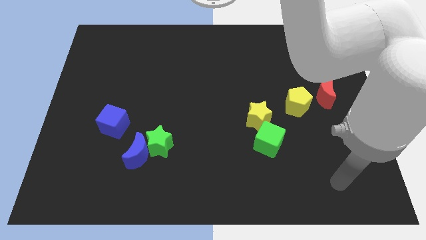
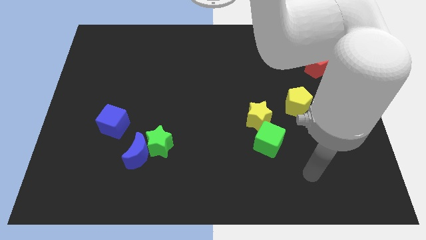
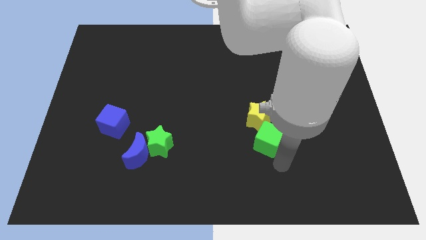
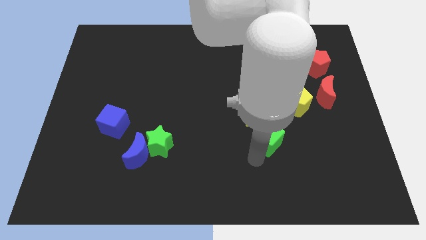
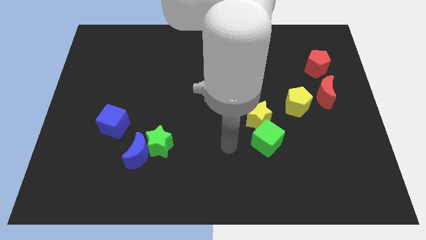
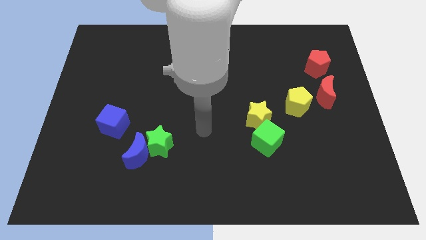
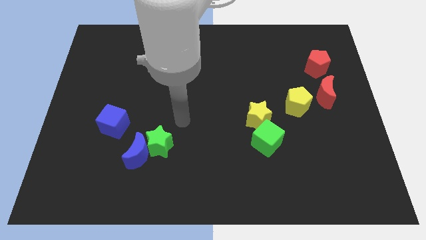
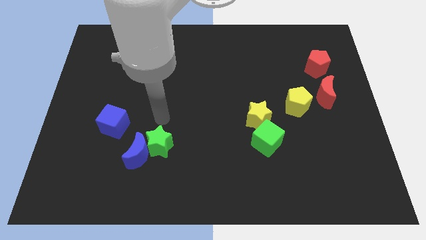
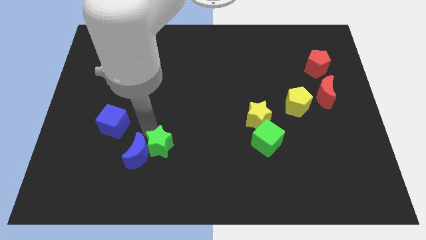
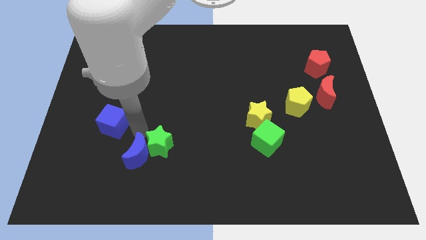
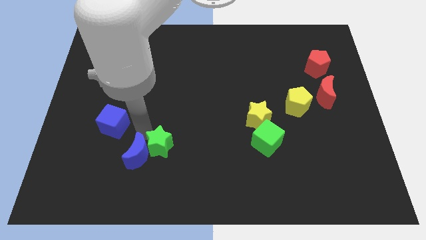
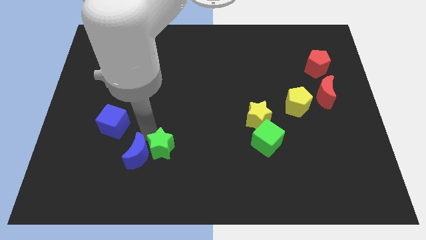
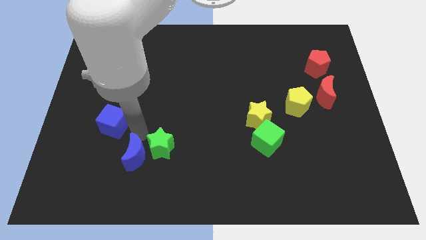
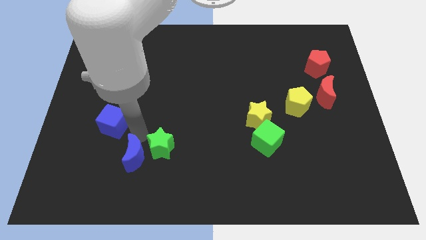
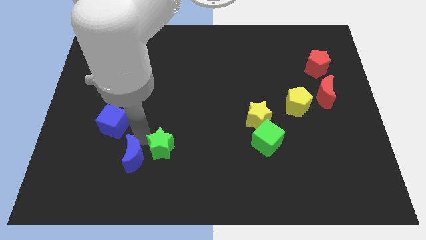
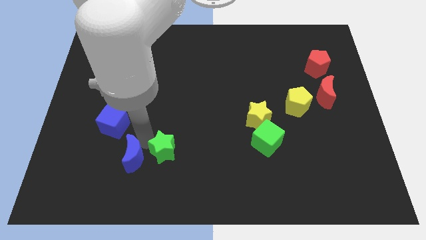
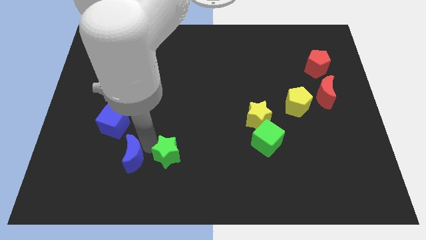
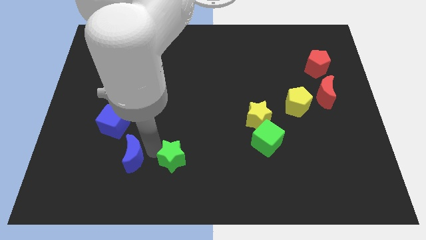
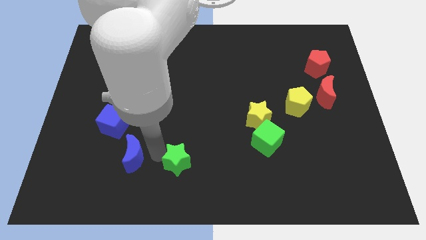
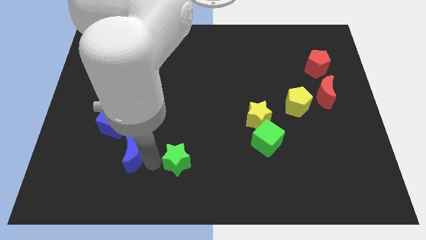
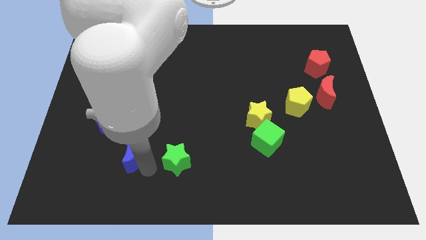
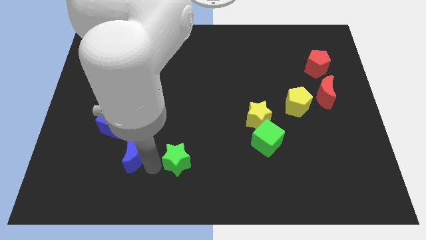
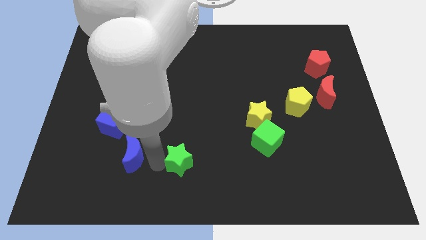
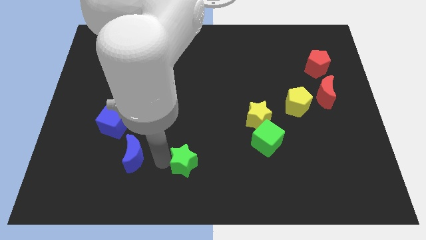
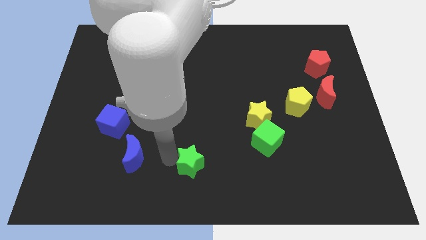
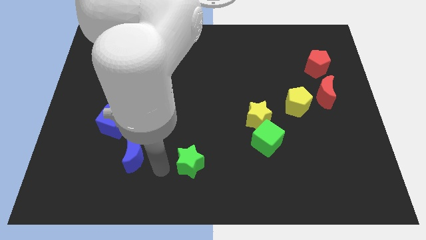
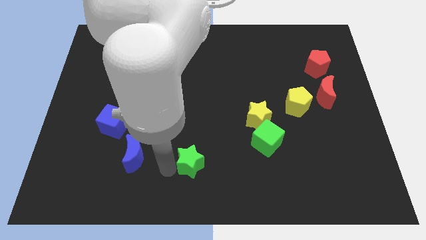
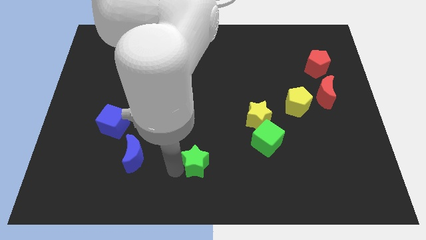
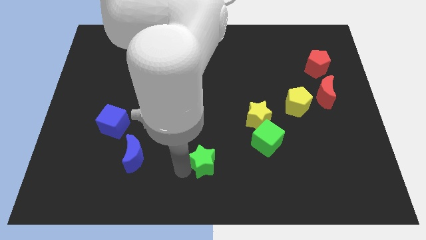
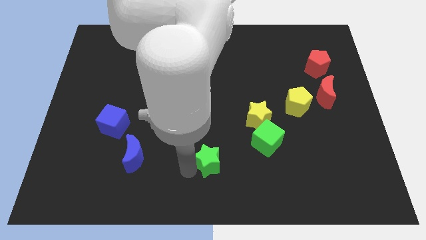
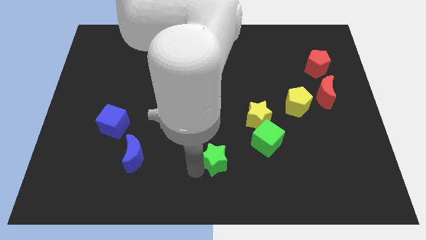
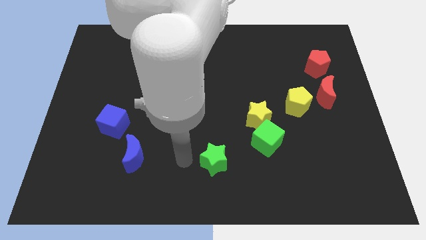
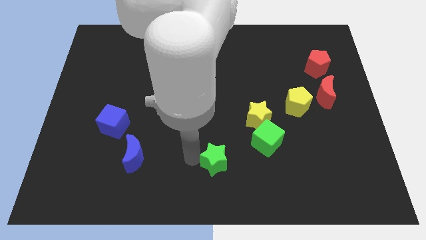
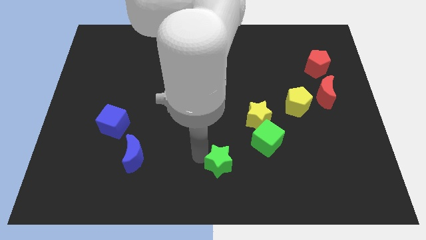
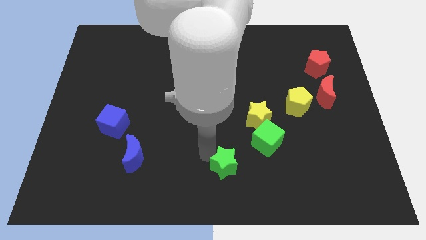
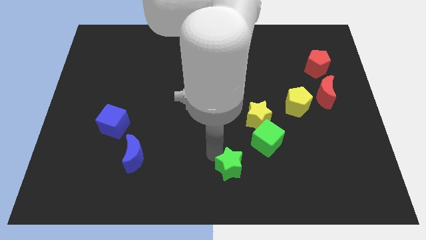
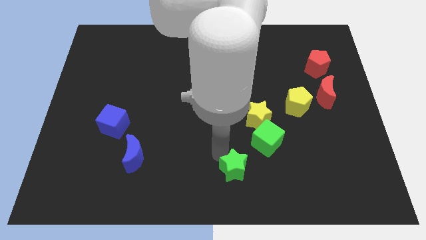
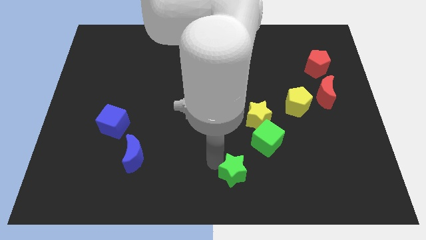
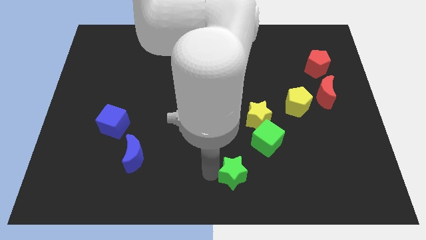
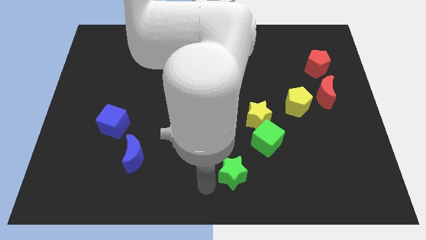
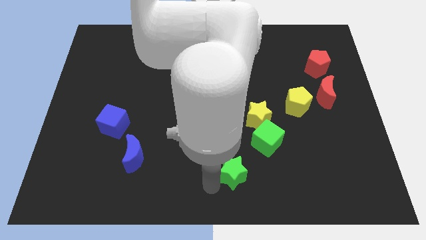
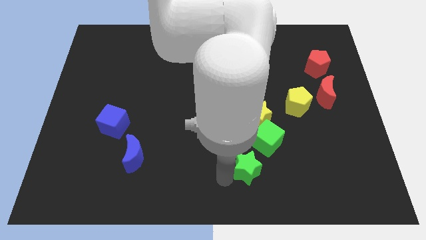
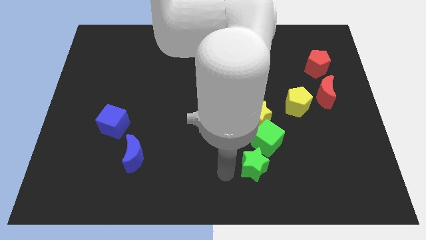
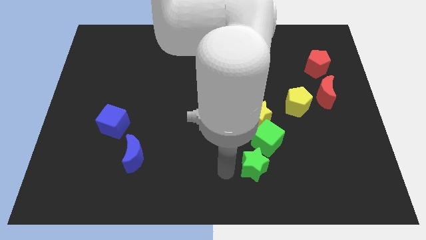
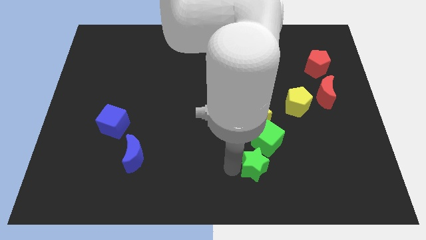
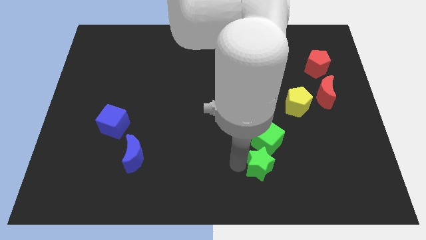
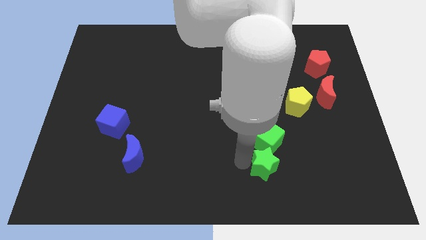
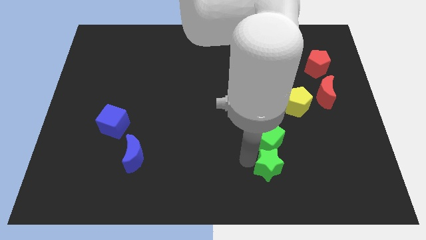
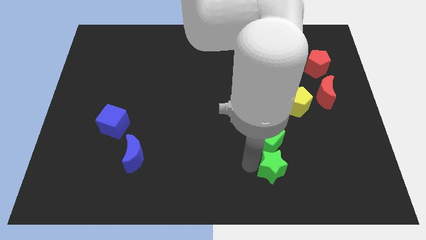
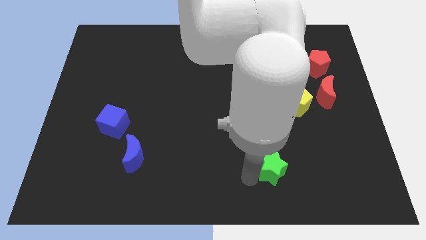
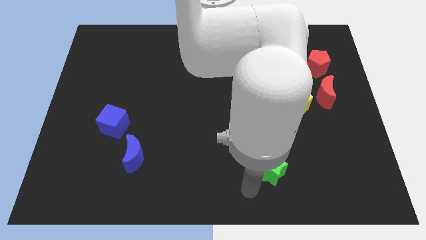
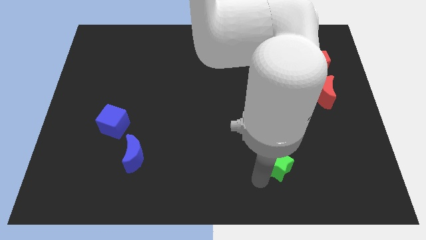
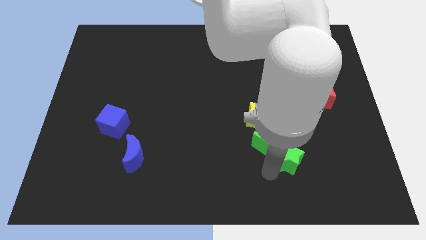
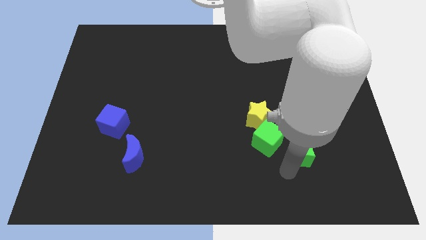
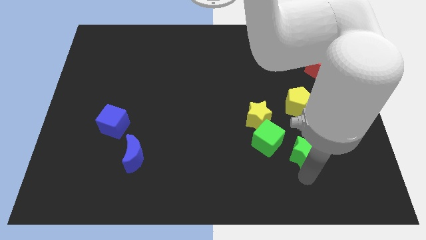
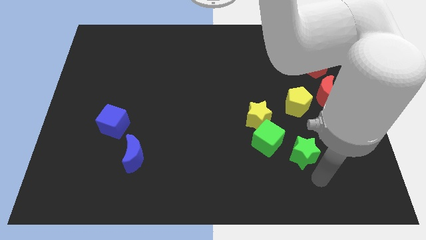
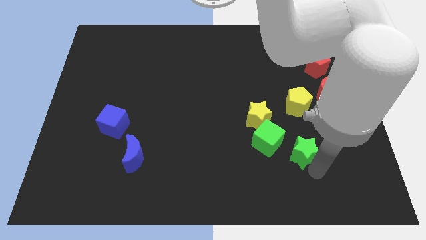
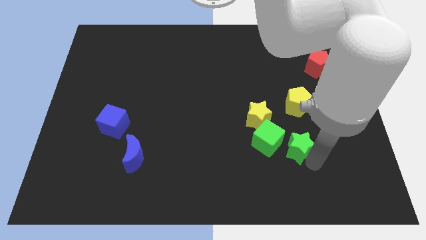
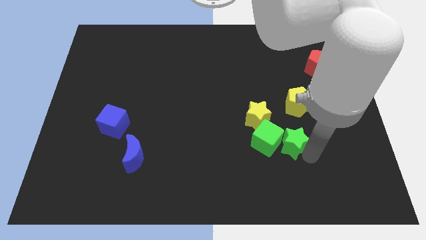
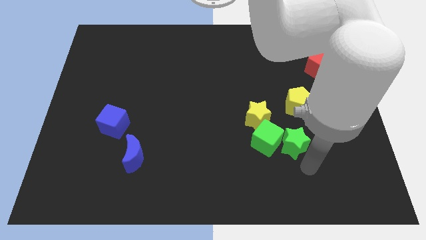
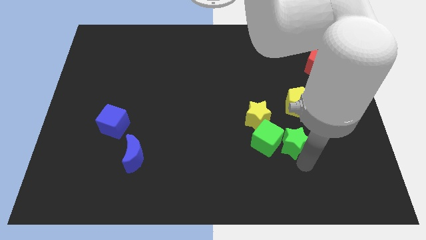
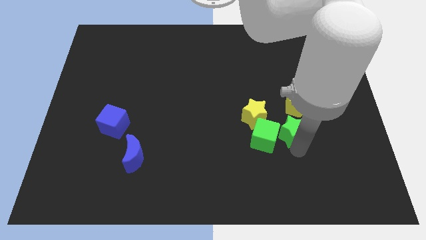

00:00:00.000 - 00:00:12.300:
slide the green star to the bottom left side of the yellow pentagon

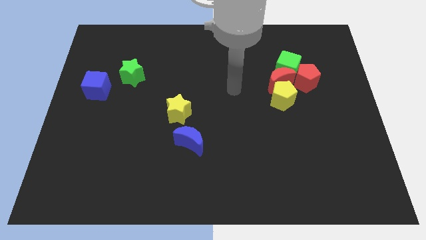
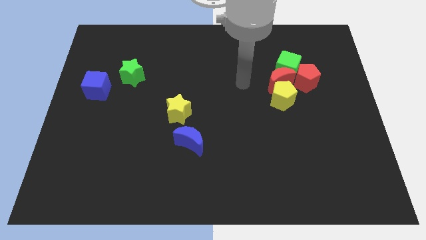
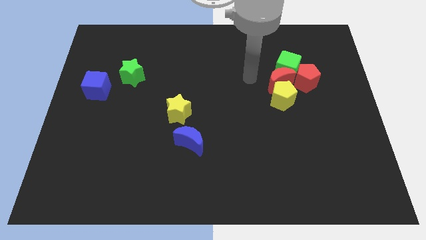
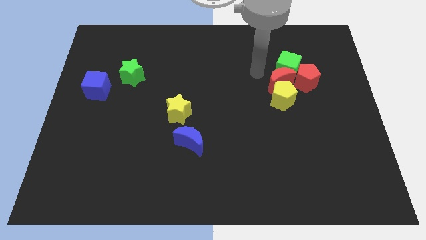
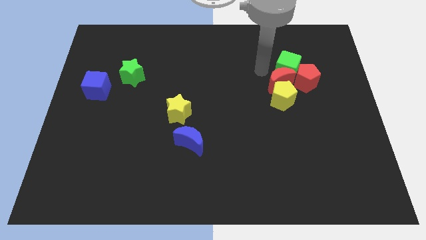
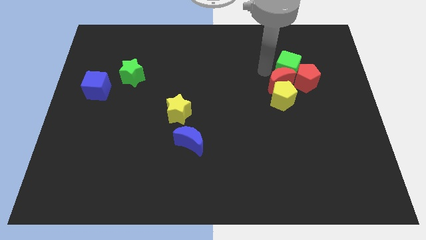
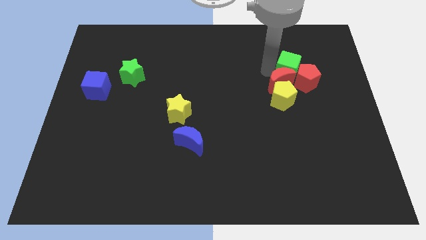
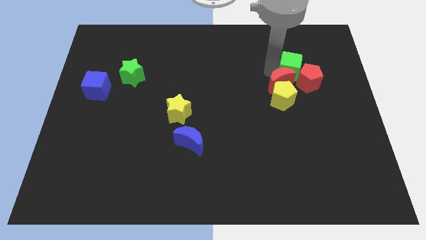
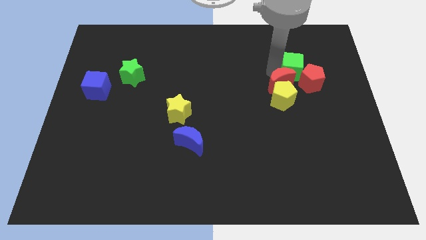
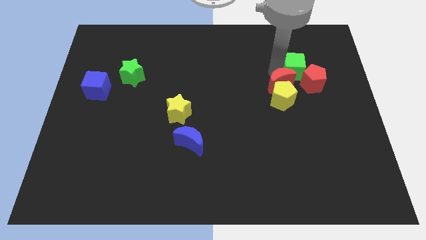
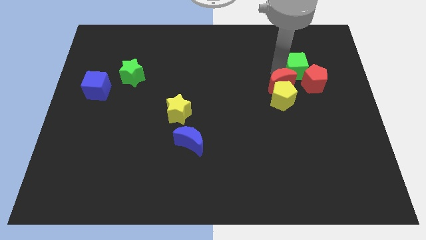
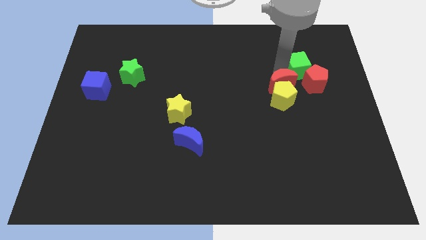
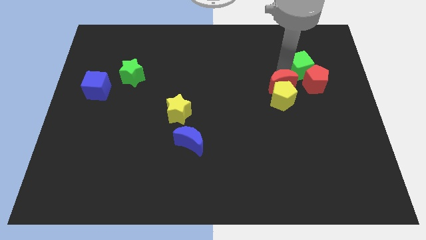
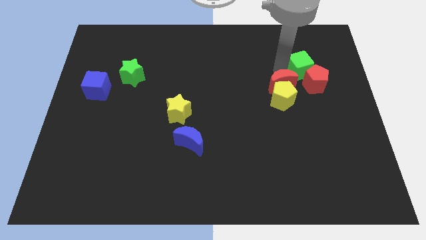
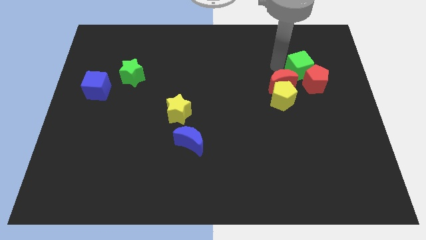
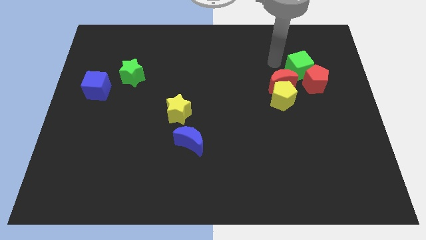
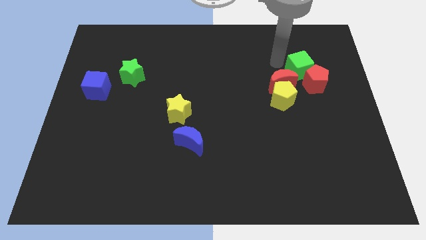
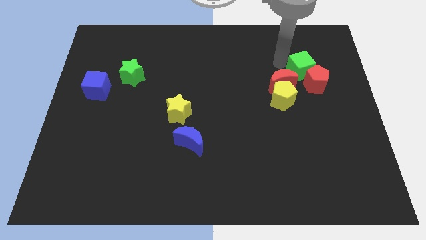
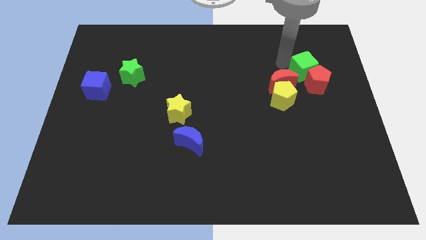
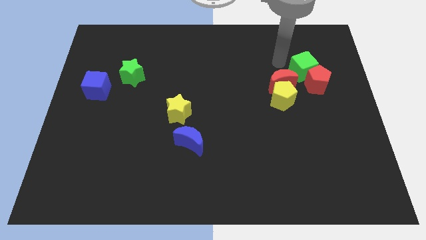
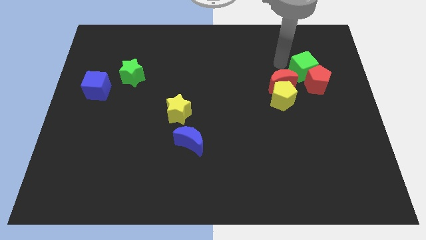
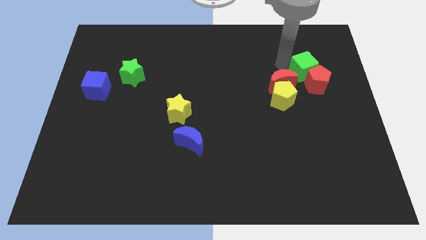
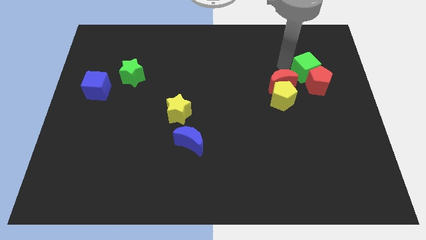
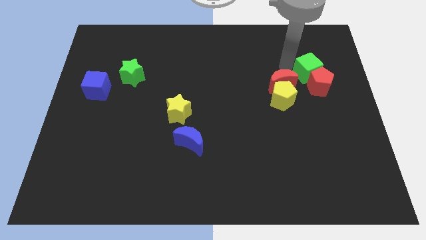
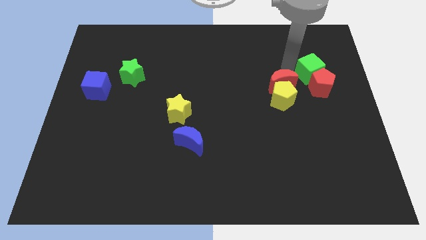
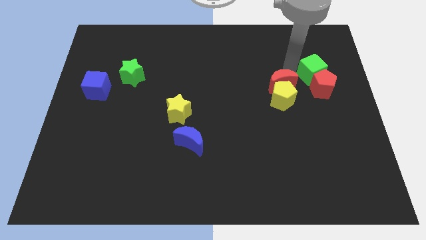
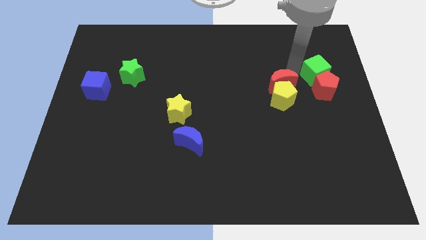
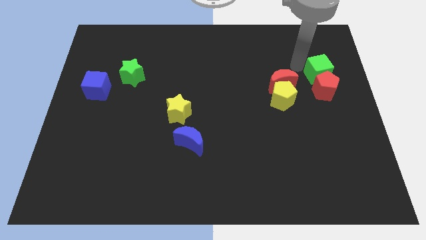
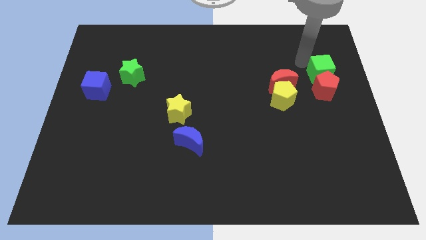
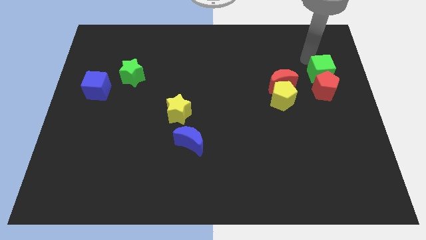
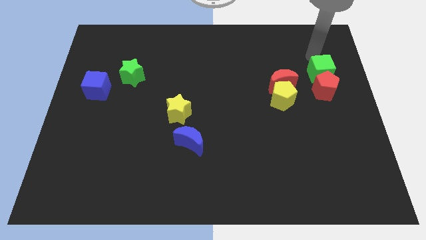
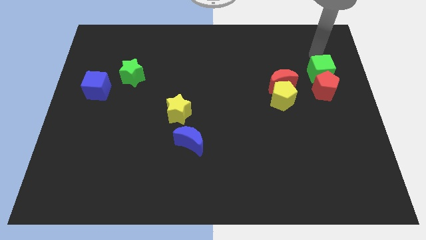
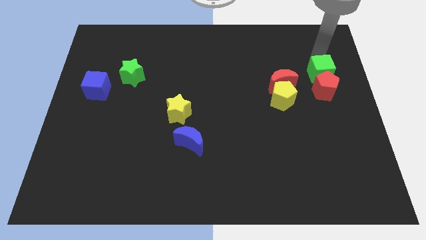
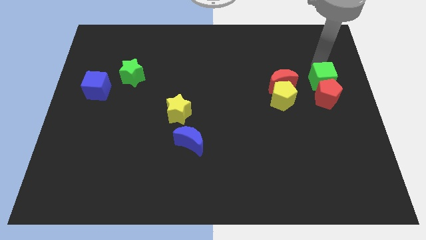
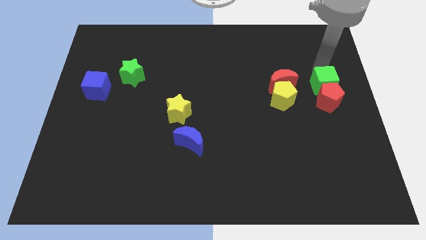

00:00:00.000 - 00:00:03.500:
push the green cube right of the yellow pentagon
